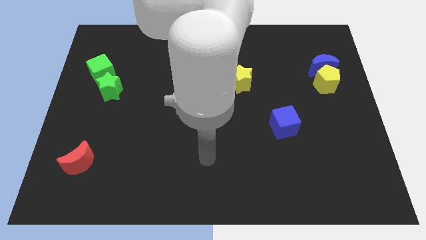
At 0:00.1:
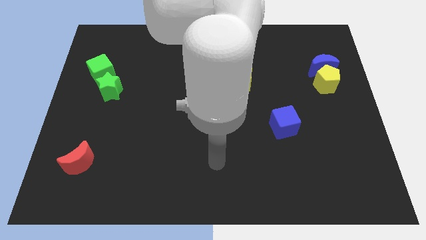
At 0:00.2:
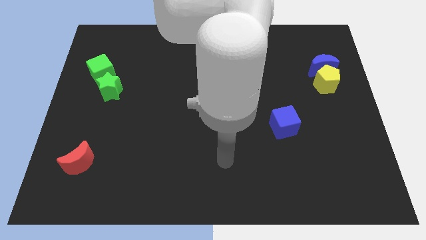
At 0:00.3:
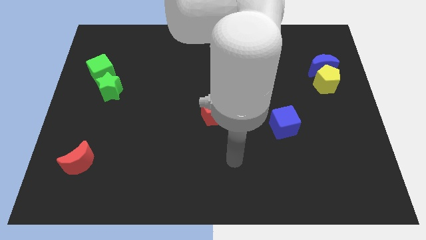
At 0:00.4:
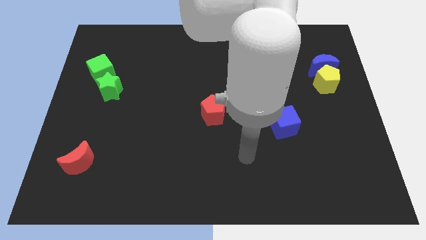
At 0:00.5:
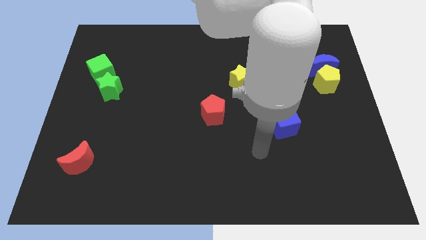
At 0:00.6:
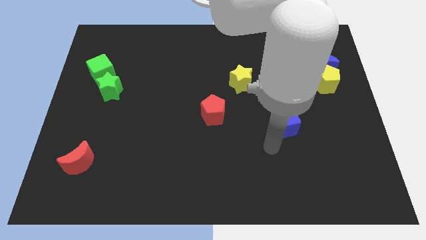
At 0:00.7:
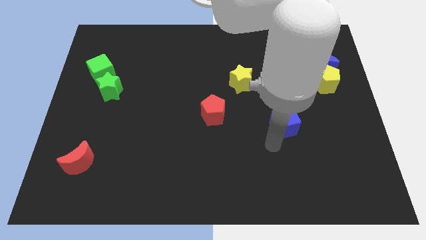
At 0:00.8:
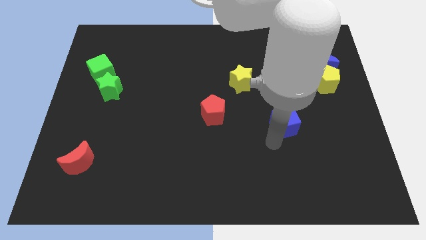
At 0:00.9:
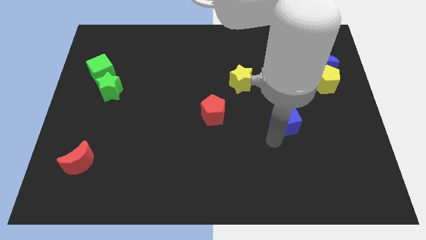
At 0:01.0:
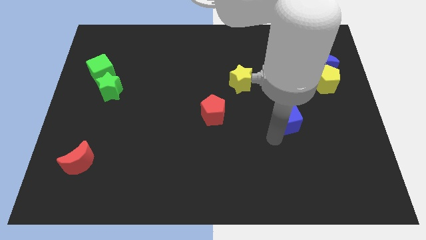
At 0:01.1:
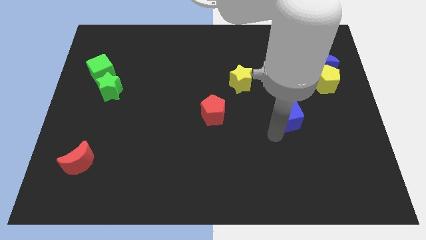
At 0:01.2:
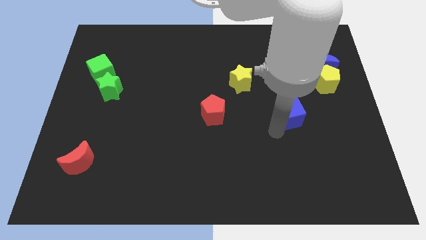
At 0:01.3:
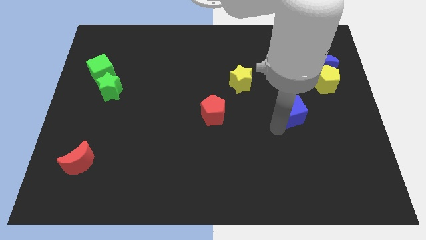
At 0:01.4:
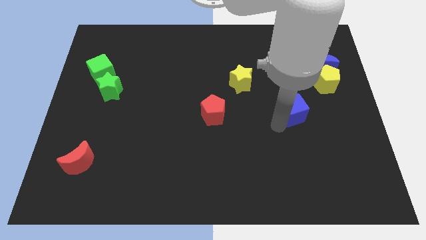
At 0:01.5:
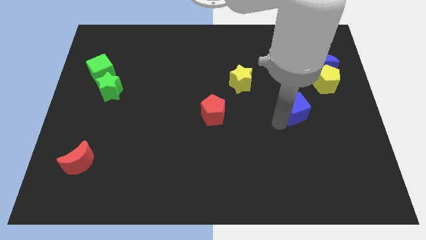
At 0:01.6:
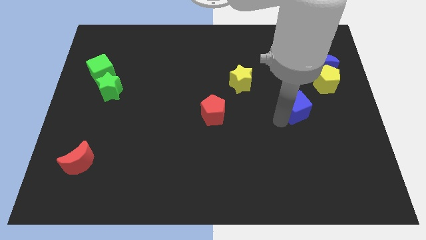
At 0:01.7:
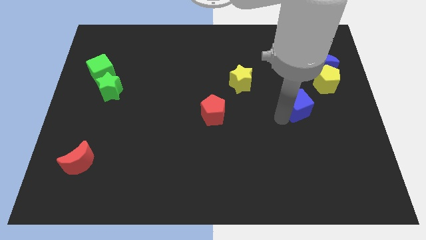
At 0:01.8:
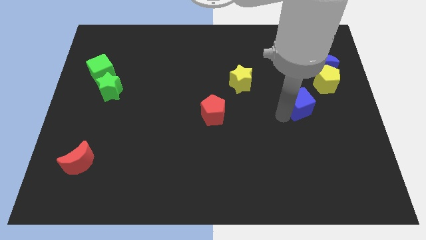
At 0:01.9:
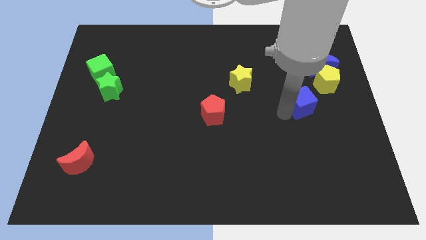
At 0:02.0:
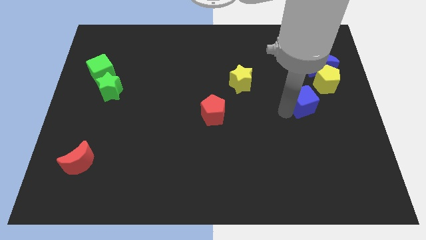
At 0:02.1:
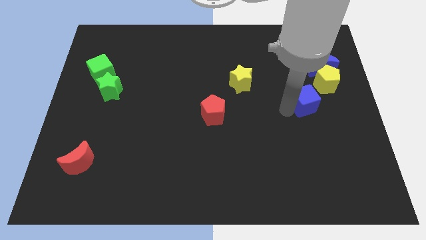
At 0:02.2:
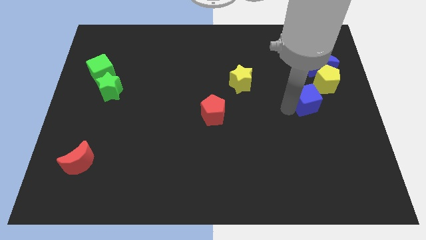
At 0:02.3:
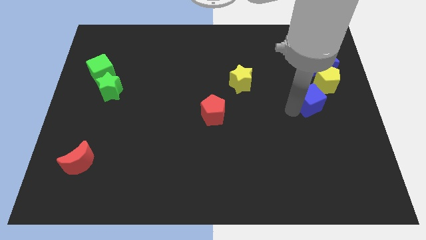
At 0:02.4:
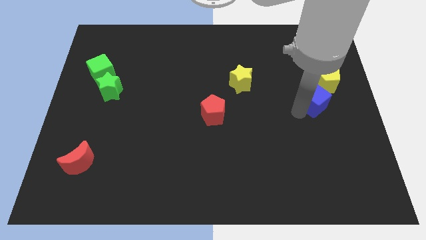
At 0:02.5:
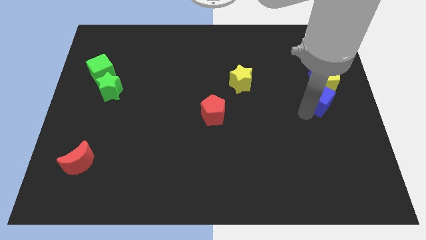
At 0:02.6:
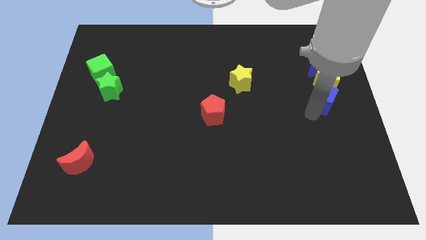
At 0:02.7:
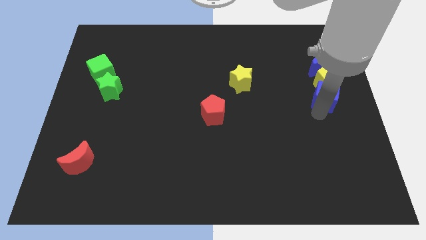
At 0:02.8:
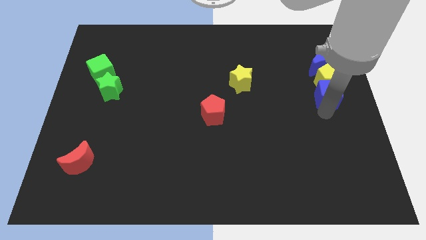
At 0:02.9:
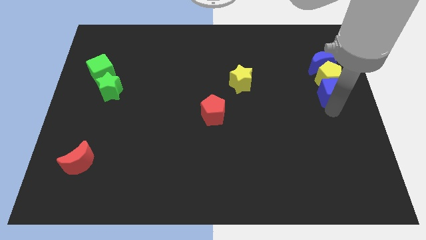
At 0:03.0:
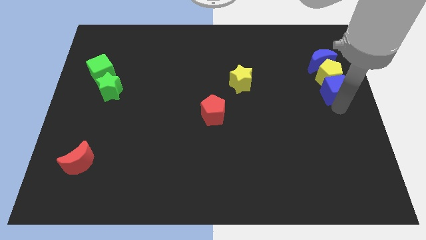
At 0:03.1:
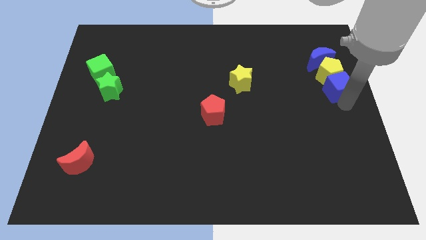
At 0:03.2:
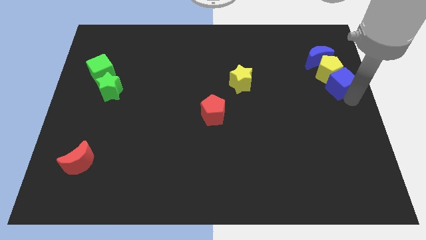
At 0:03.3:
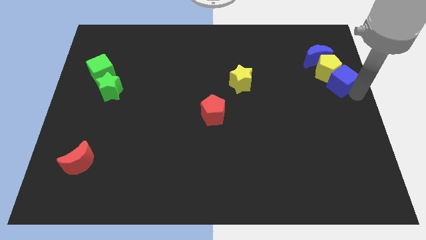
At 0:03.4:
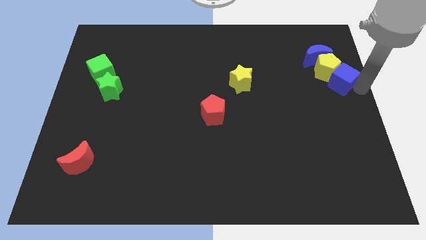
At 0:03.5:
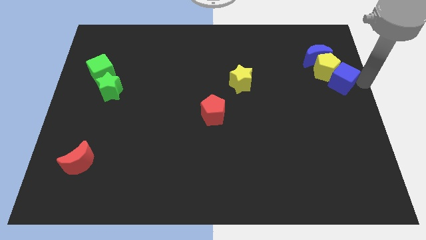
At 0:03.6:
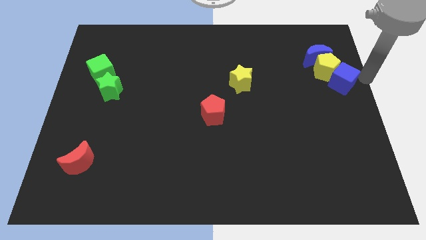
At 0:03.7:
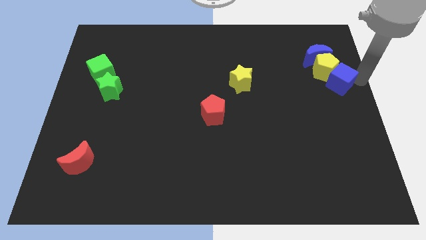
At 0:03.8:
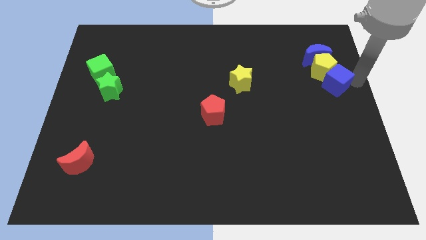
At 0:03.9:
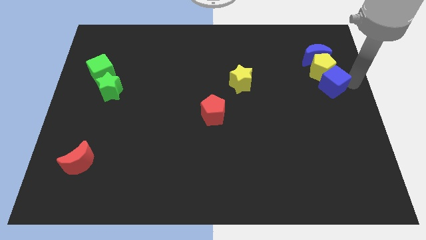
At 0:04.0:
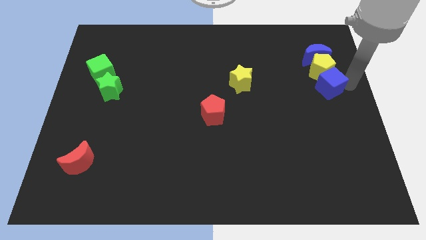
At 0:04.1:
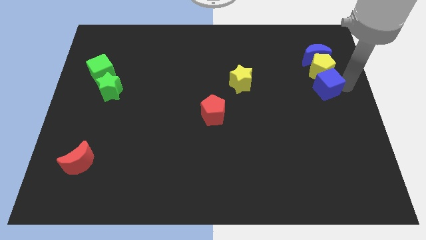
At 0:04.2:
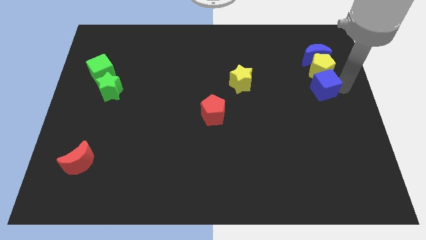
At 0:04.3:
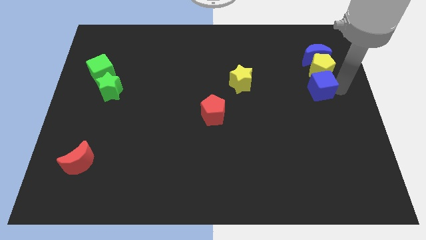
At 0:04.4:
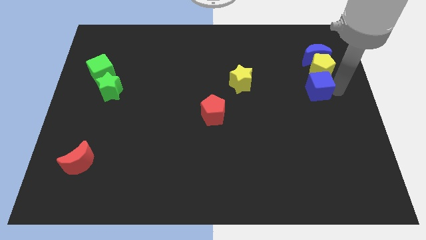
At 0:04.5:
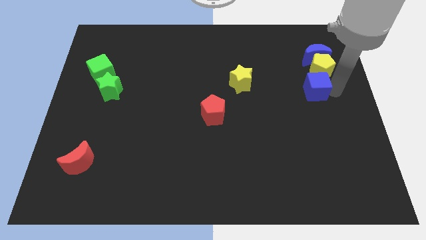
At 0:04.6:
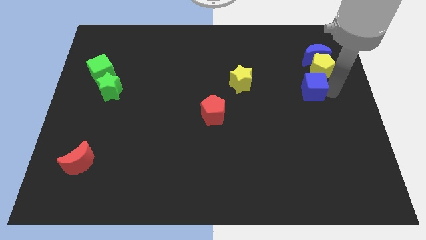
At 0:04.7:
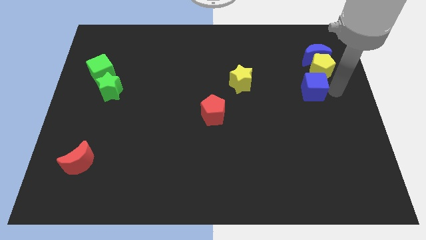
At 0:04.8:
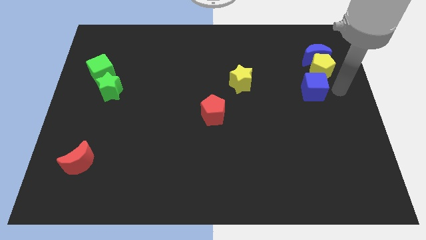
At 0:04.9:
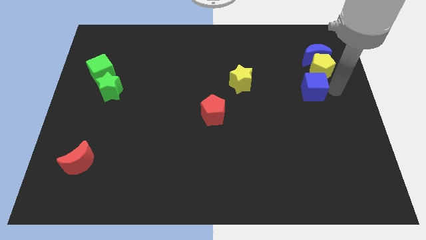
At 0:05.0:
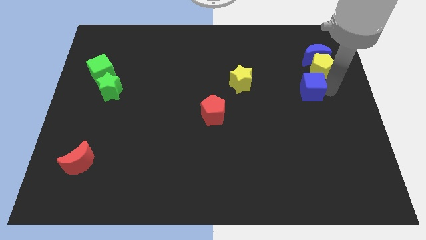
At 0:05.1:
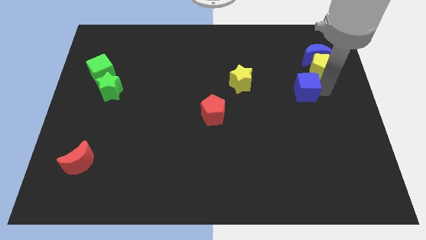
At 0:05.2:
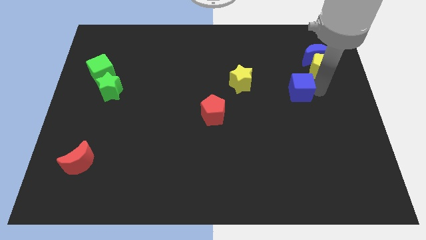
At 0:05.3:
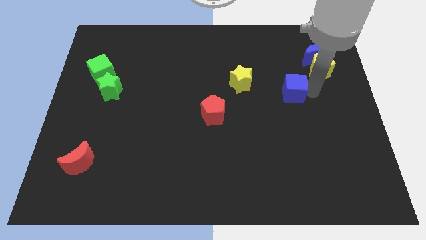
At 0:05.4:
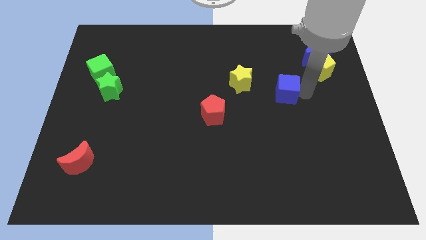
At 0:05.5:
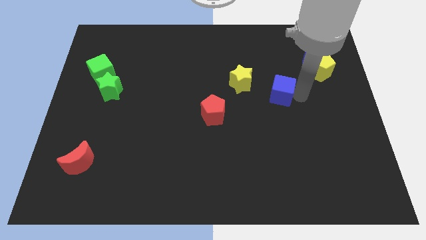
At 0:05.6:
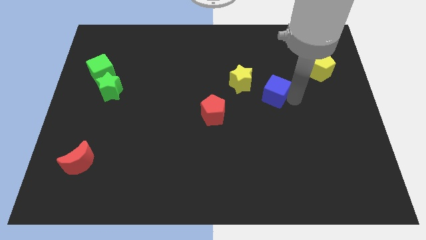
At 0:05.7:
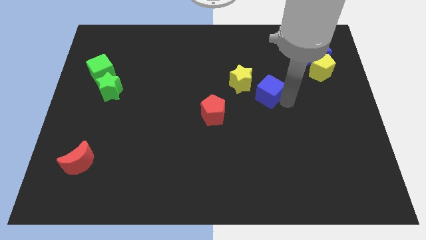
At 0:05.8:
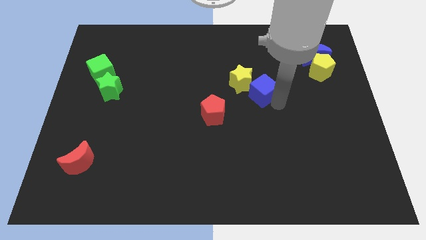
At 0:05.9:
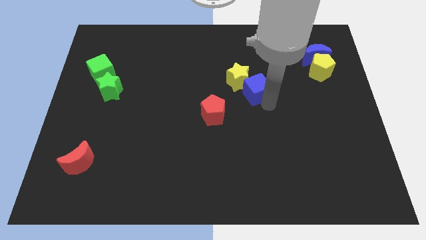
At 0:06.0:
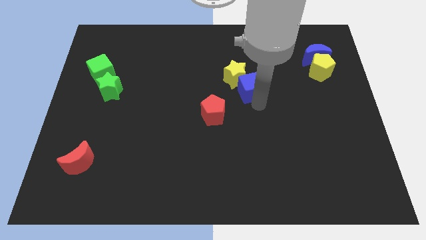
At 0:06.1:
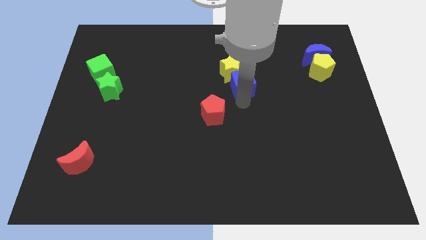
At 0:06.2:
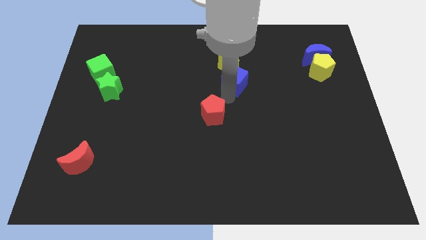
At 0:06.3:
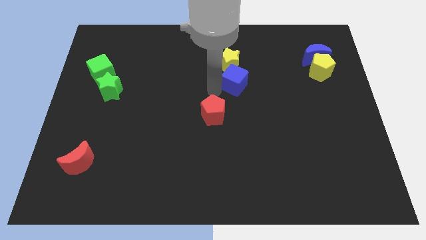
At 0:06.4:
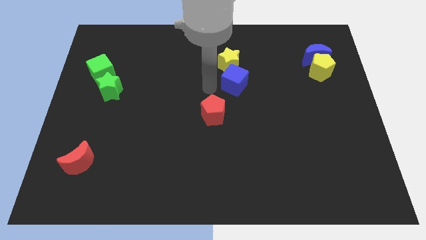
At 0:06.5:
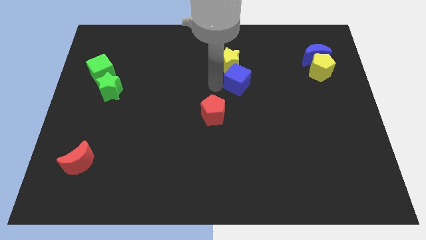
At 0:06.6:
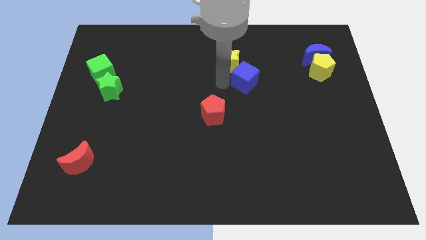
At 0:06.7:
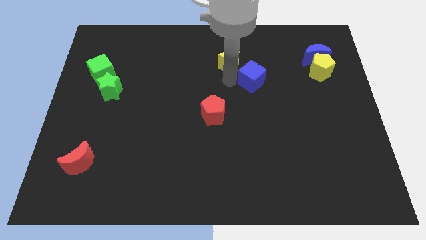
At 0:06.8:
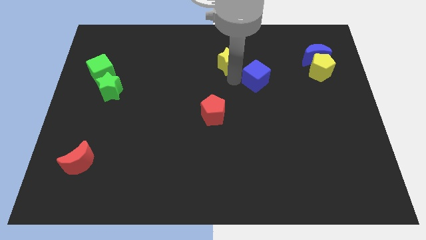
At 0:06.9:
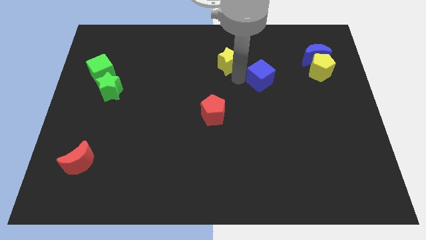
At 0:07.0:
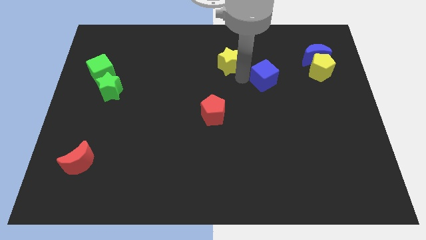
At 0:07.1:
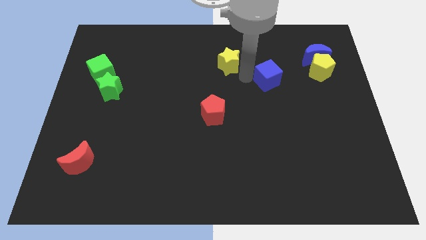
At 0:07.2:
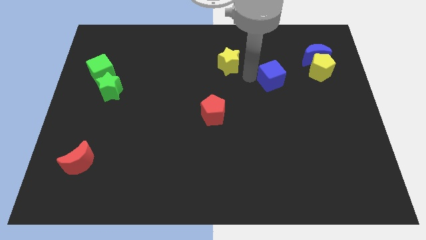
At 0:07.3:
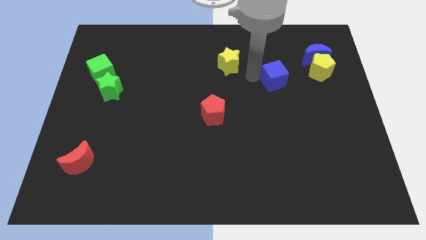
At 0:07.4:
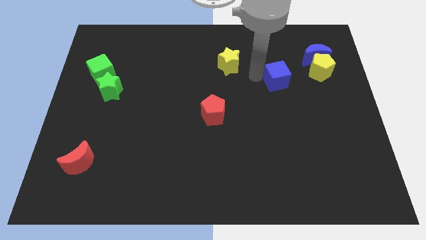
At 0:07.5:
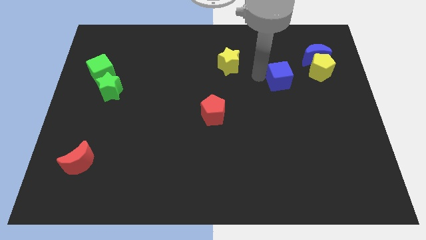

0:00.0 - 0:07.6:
slide the blue cube to the bottom left side of the blue moon
